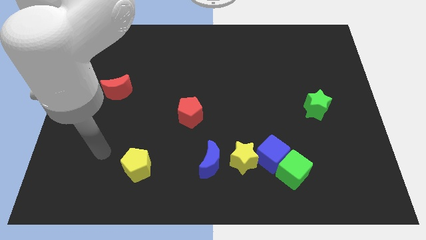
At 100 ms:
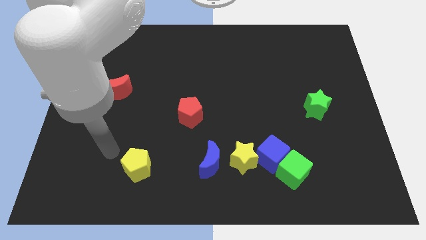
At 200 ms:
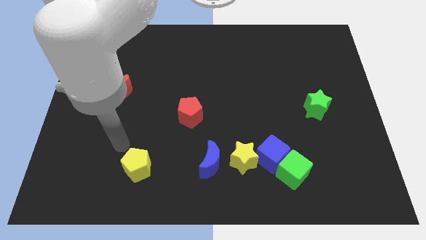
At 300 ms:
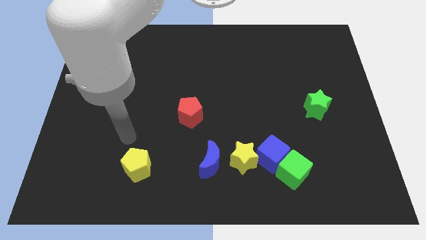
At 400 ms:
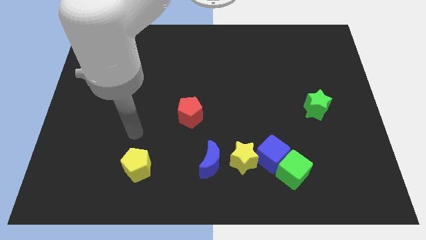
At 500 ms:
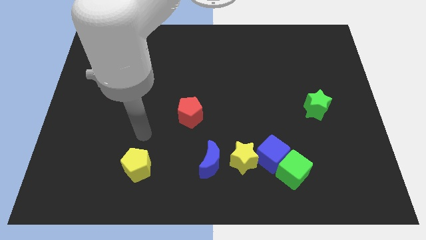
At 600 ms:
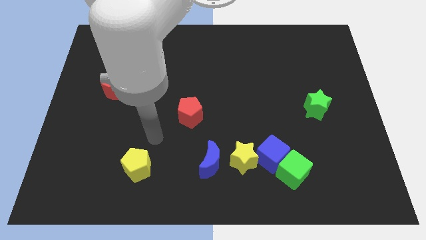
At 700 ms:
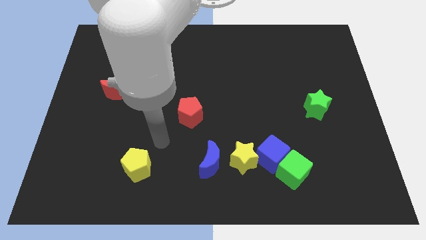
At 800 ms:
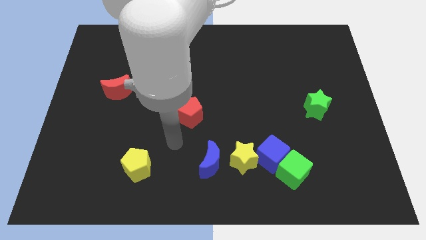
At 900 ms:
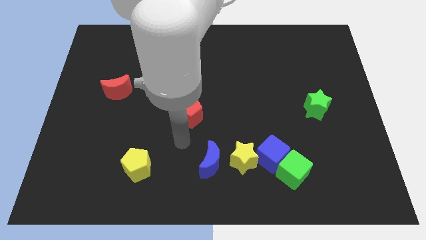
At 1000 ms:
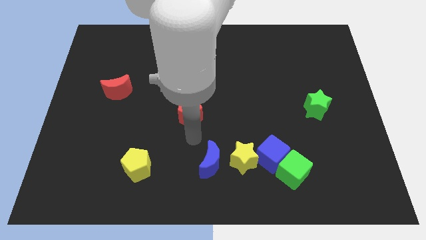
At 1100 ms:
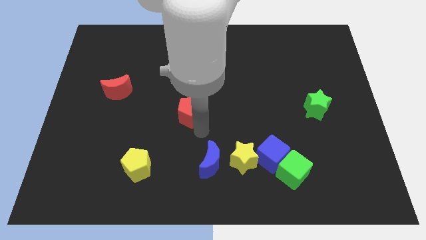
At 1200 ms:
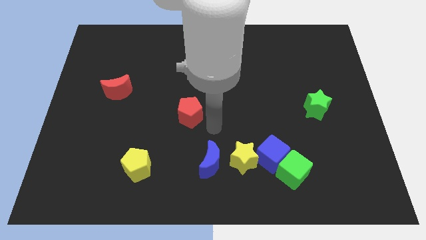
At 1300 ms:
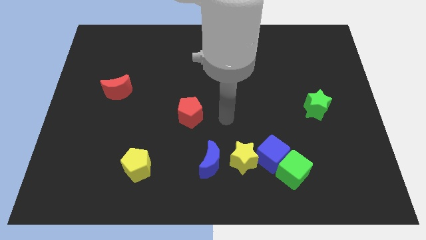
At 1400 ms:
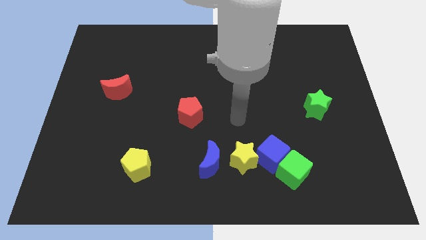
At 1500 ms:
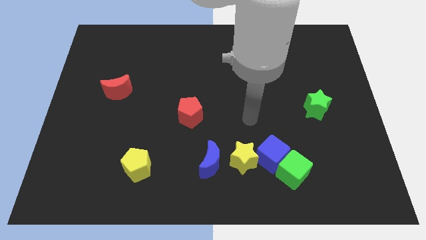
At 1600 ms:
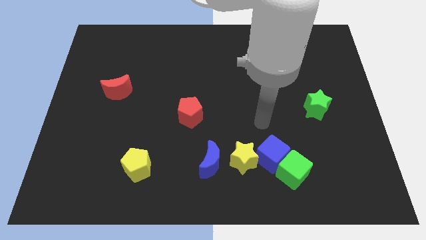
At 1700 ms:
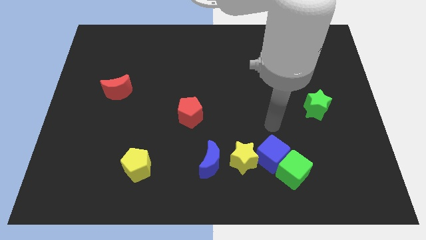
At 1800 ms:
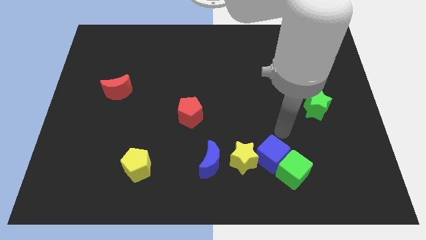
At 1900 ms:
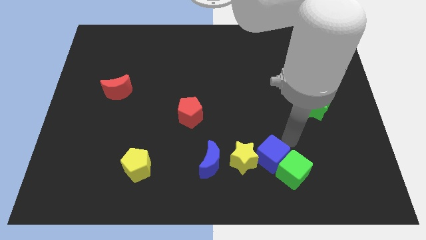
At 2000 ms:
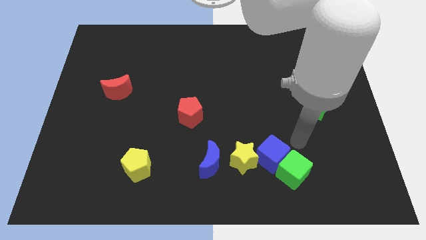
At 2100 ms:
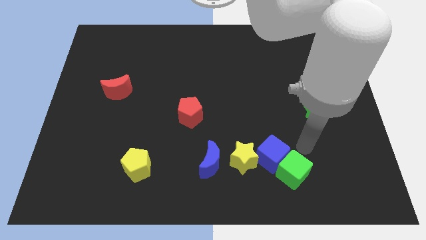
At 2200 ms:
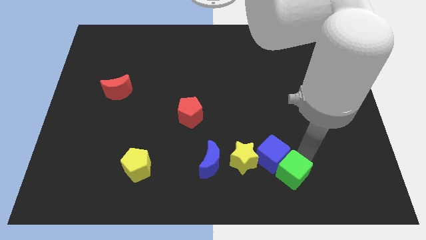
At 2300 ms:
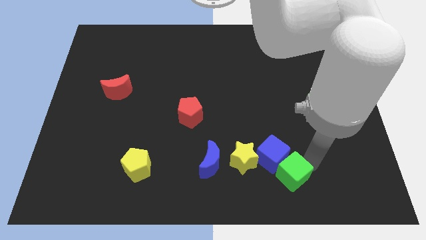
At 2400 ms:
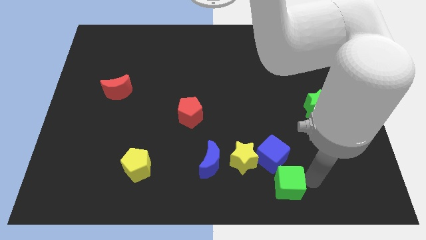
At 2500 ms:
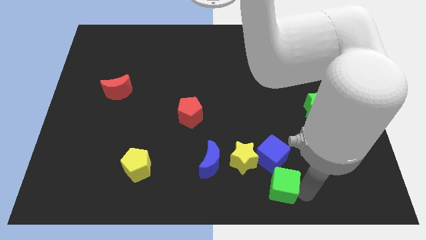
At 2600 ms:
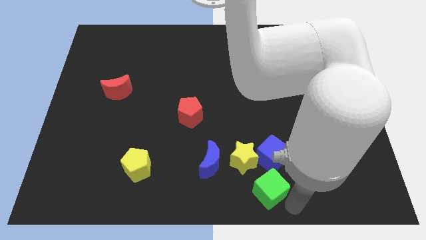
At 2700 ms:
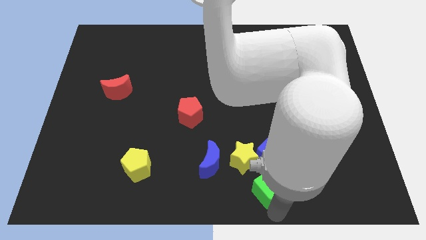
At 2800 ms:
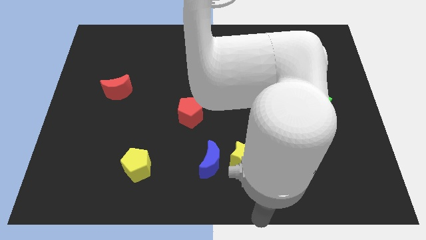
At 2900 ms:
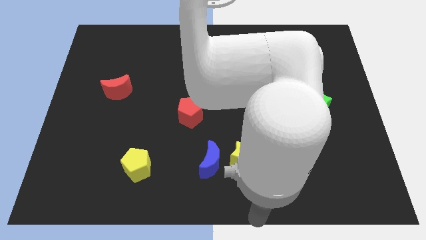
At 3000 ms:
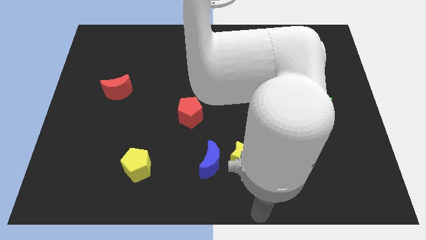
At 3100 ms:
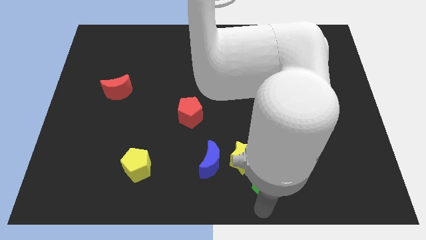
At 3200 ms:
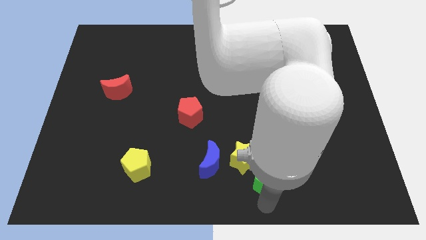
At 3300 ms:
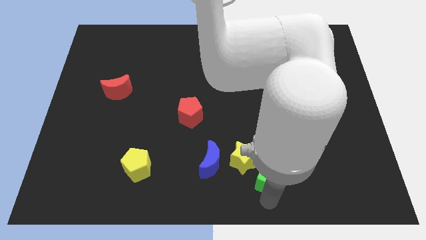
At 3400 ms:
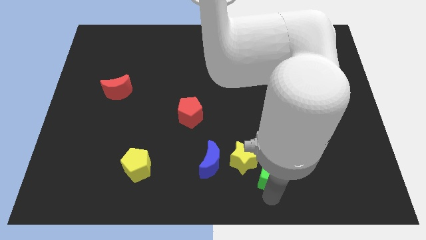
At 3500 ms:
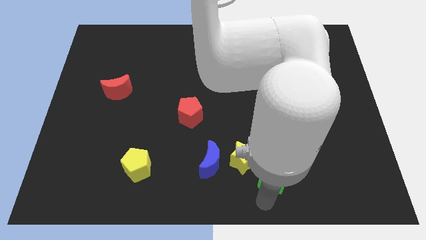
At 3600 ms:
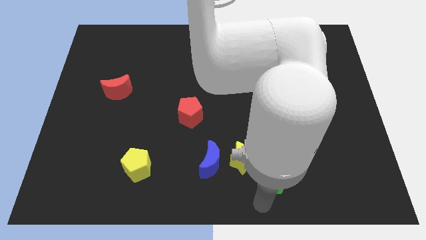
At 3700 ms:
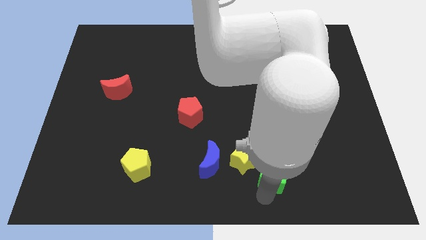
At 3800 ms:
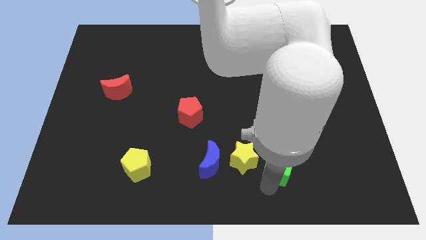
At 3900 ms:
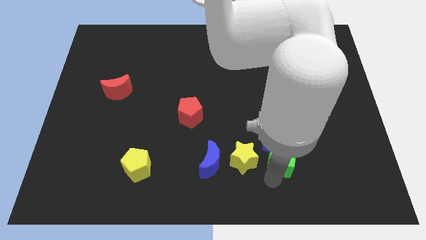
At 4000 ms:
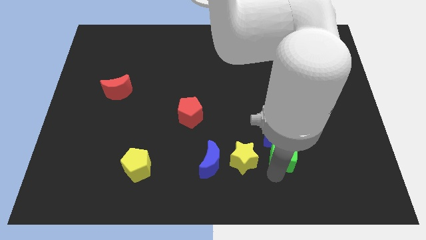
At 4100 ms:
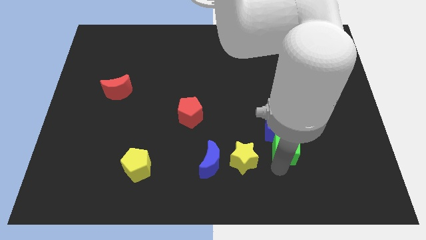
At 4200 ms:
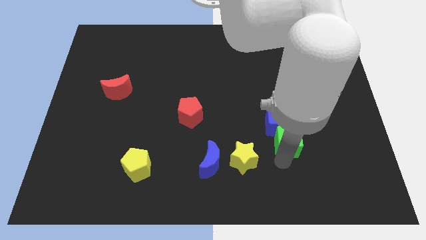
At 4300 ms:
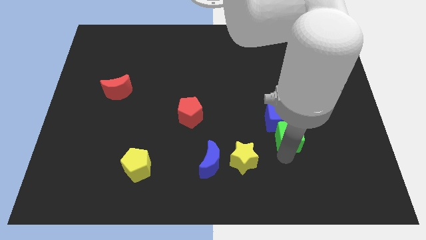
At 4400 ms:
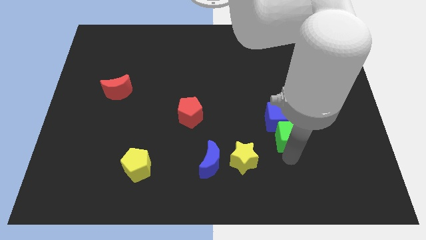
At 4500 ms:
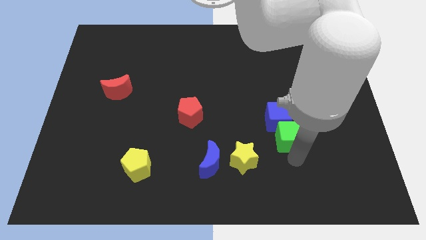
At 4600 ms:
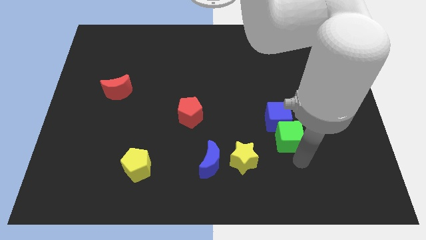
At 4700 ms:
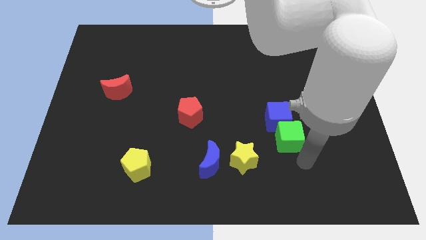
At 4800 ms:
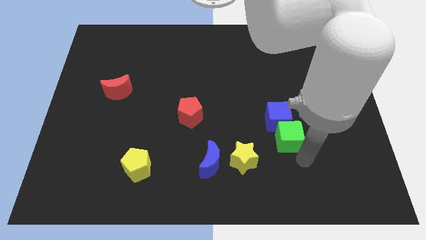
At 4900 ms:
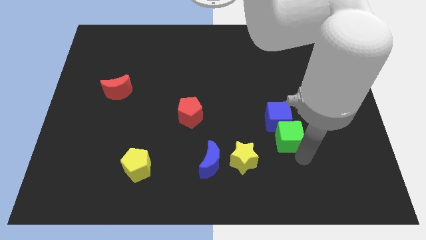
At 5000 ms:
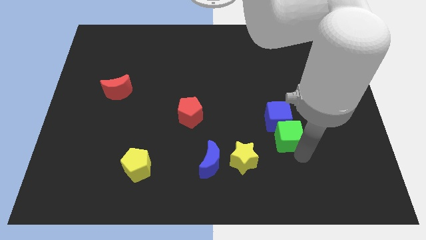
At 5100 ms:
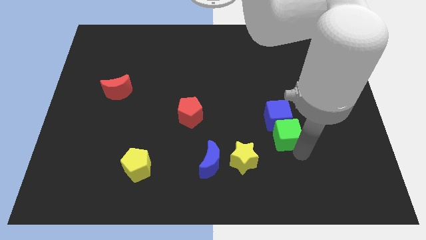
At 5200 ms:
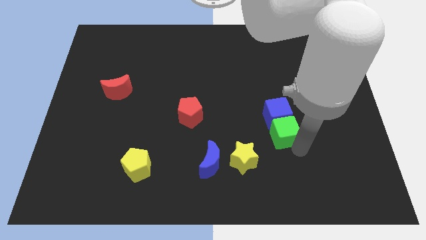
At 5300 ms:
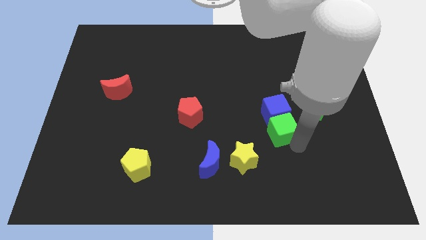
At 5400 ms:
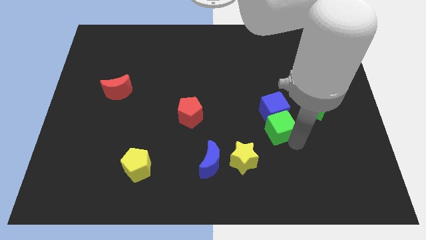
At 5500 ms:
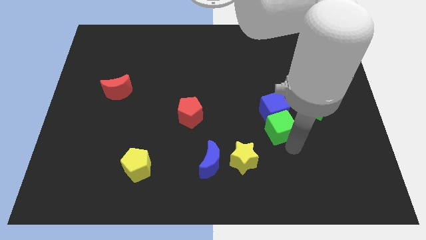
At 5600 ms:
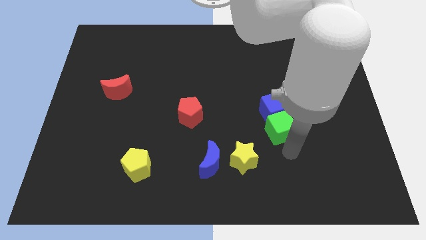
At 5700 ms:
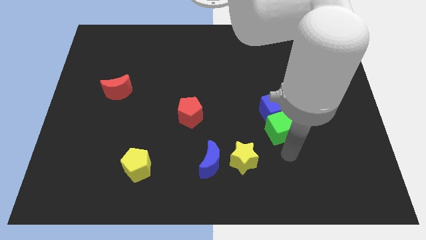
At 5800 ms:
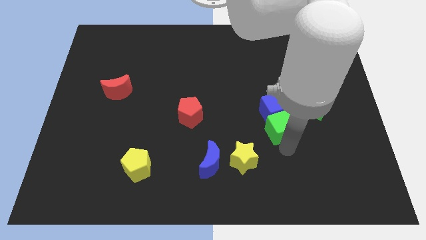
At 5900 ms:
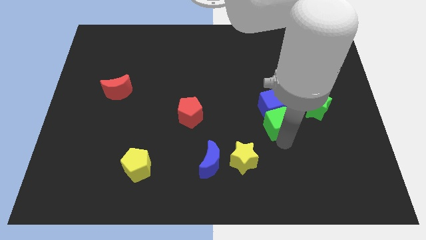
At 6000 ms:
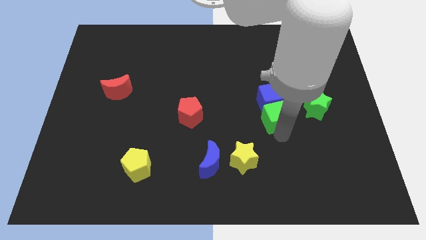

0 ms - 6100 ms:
move the green cube to the left side of the green star
